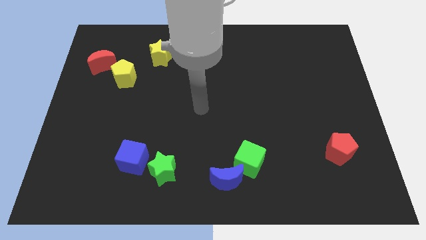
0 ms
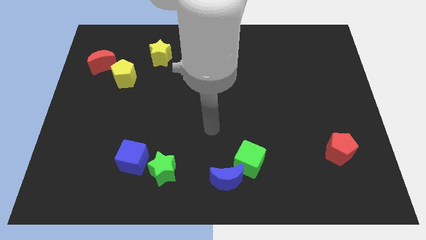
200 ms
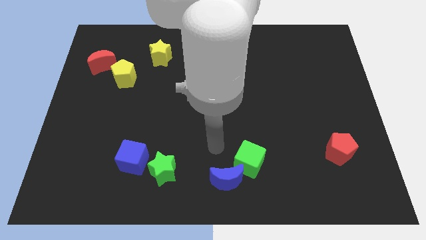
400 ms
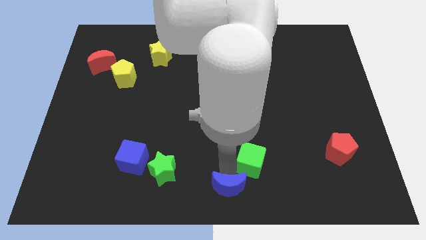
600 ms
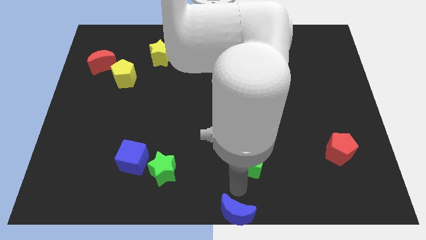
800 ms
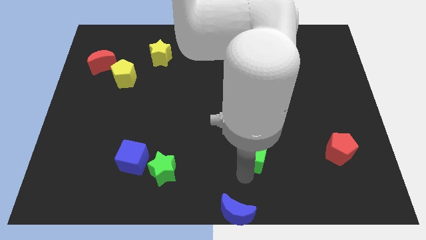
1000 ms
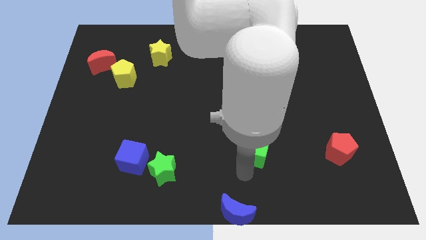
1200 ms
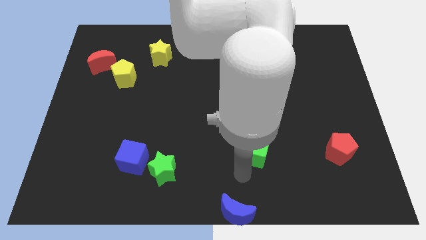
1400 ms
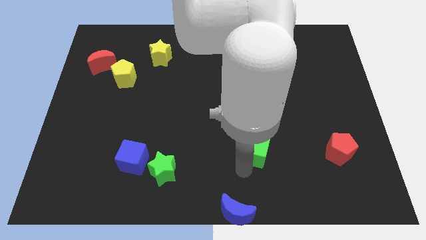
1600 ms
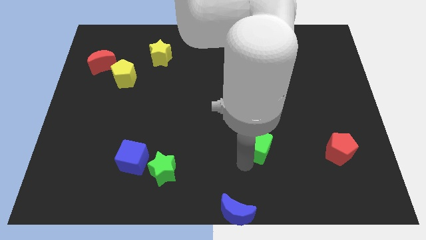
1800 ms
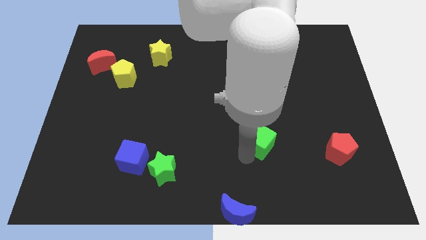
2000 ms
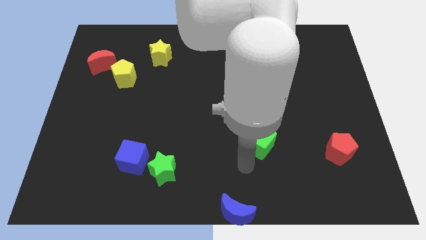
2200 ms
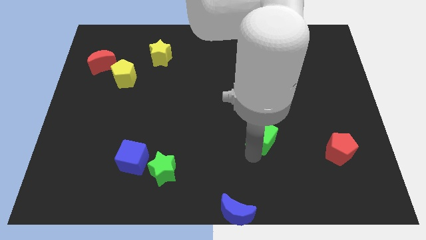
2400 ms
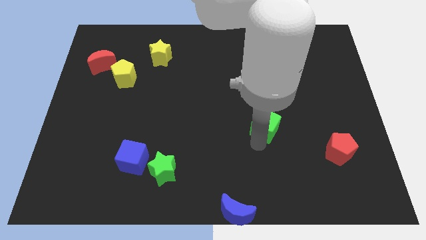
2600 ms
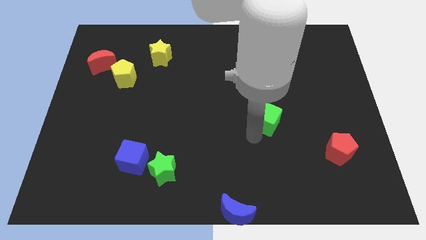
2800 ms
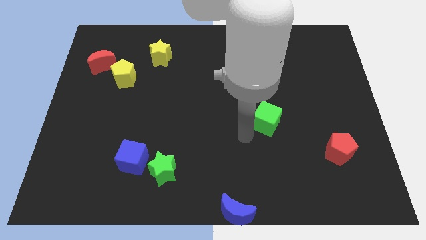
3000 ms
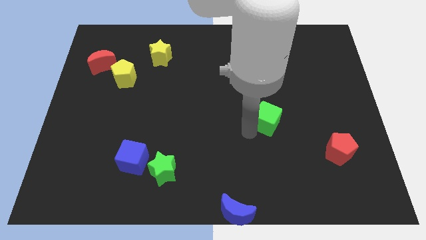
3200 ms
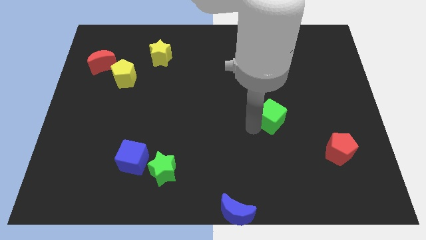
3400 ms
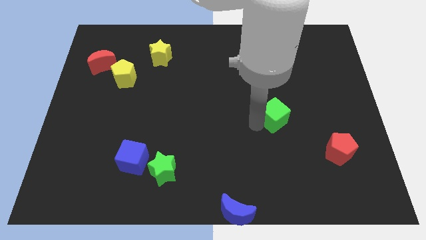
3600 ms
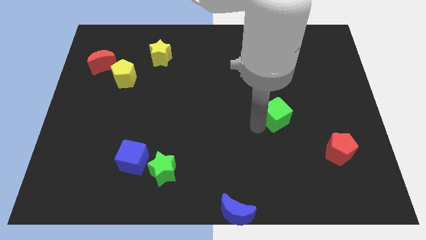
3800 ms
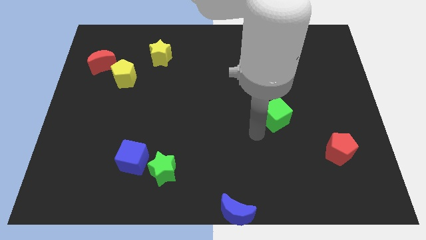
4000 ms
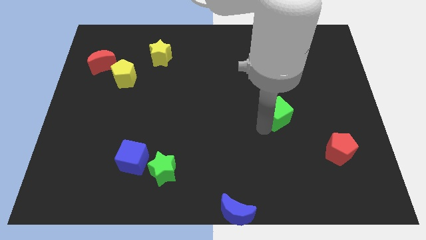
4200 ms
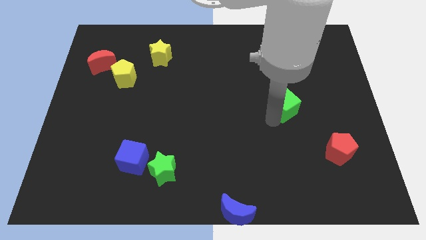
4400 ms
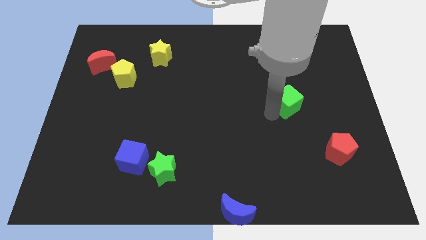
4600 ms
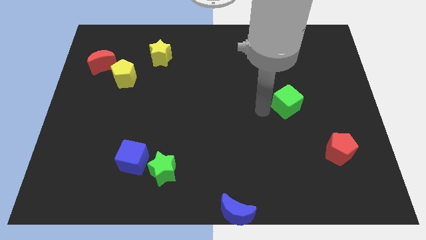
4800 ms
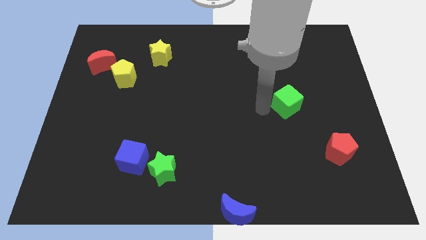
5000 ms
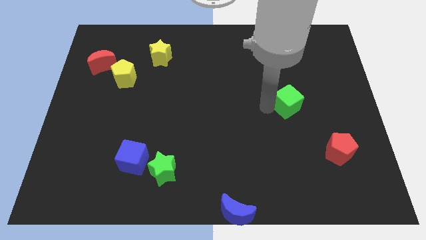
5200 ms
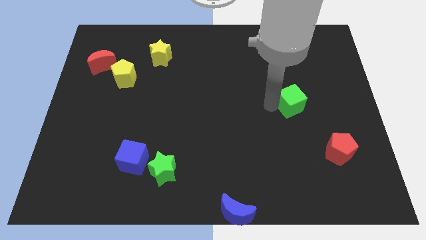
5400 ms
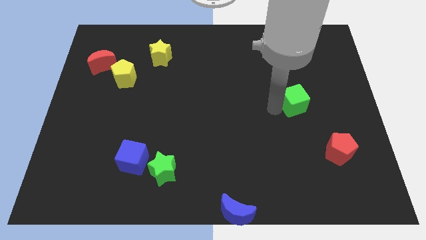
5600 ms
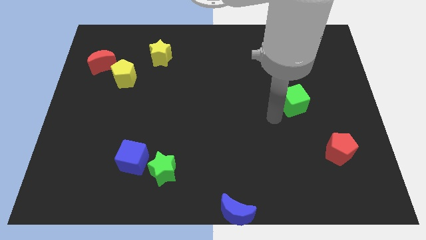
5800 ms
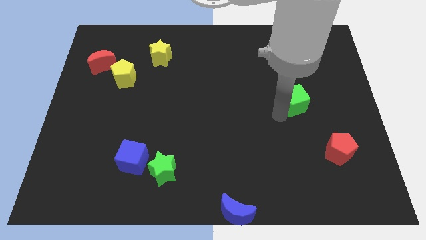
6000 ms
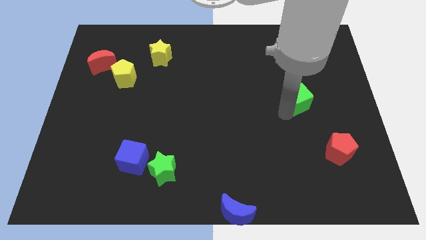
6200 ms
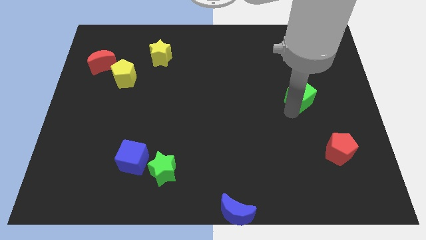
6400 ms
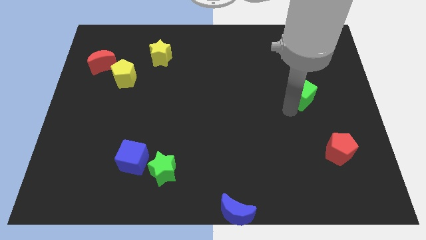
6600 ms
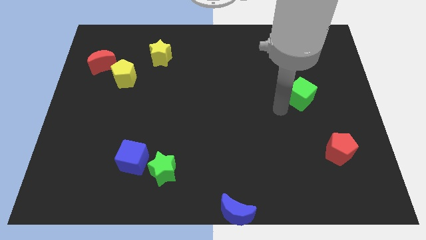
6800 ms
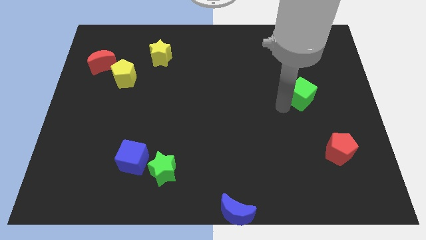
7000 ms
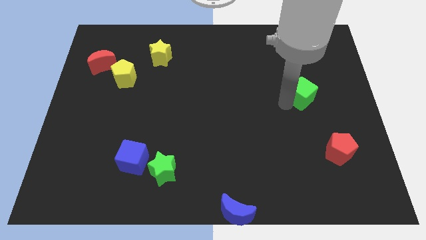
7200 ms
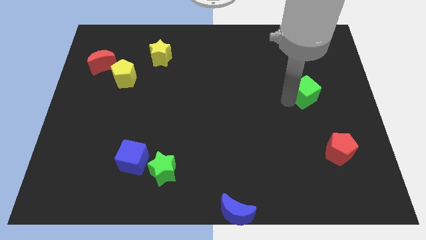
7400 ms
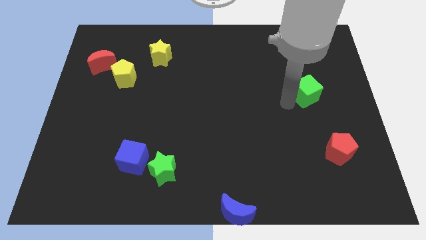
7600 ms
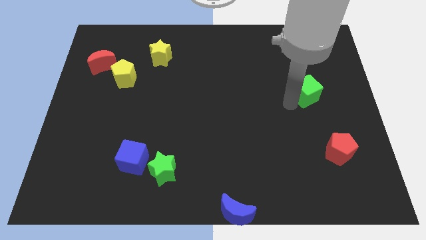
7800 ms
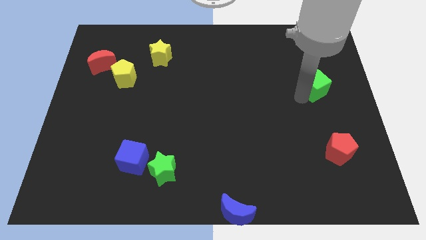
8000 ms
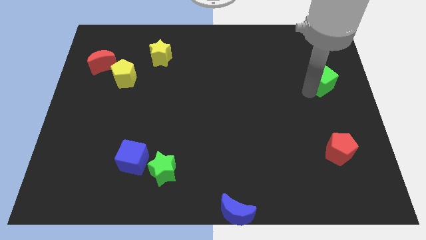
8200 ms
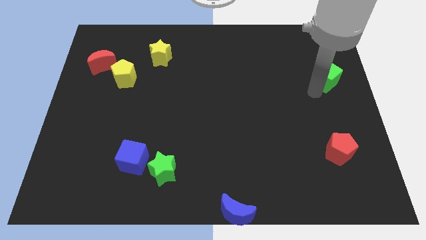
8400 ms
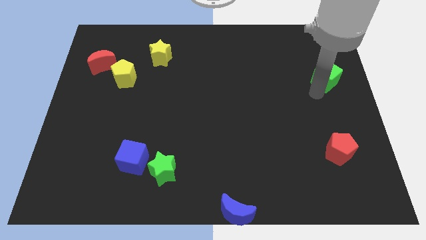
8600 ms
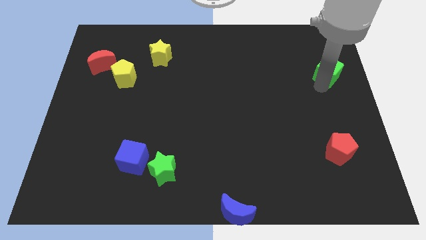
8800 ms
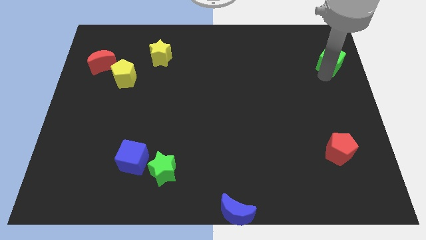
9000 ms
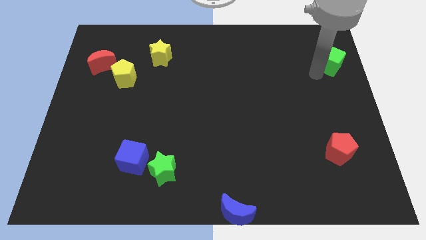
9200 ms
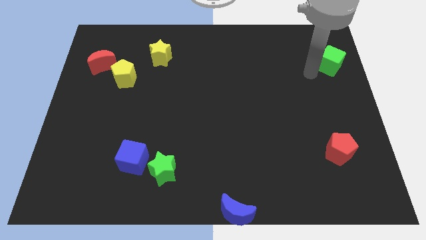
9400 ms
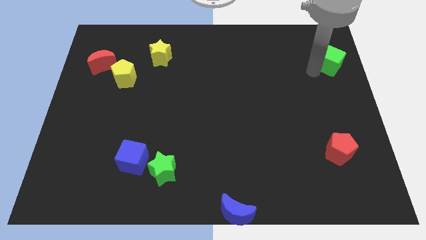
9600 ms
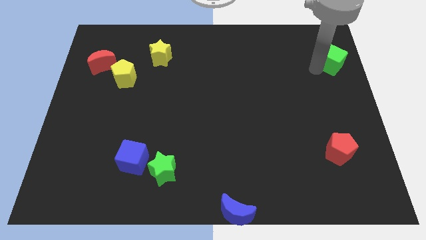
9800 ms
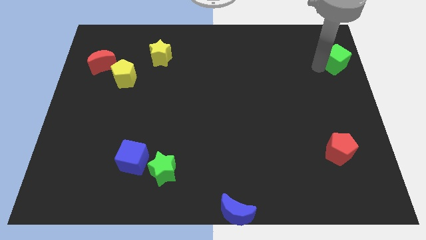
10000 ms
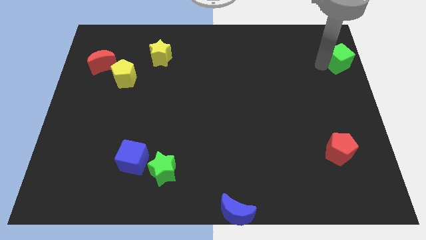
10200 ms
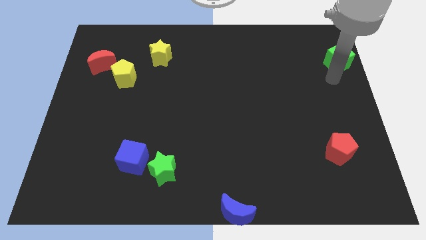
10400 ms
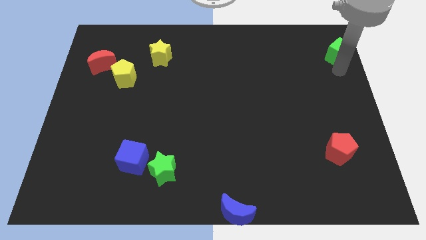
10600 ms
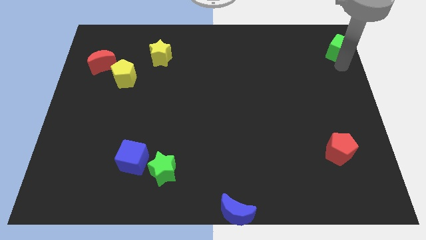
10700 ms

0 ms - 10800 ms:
put the green cube to the upper right corner

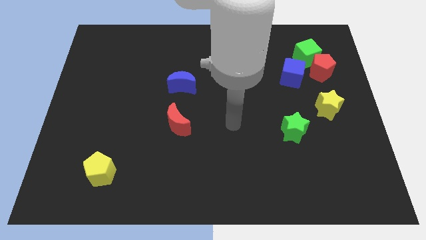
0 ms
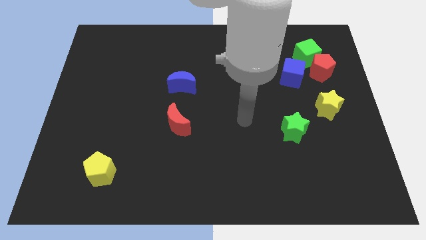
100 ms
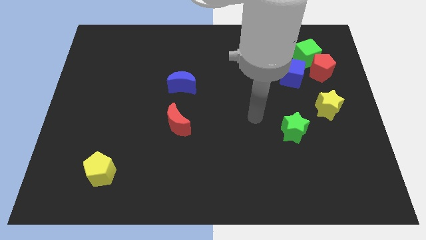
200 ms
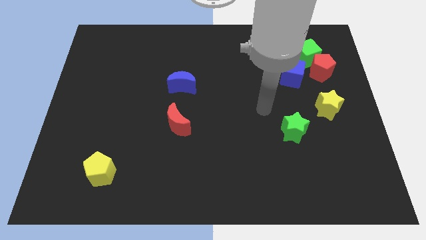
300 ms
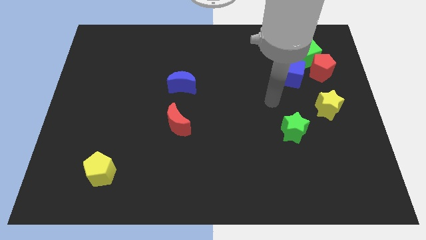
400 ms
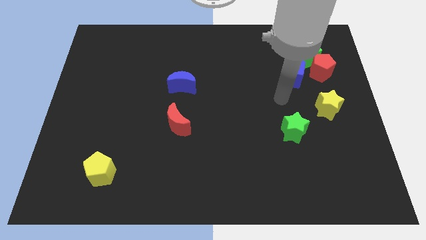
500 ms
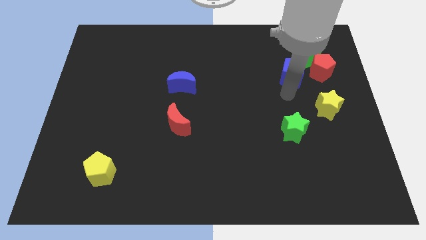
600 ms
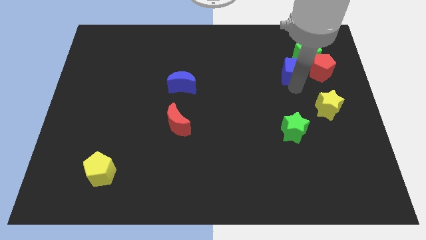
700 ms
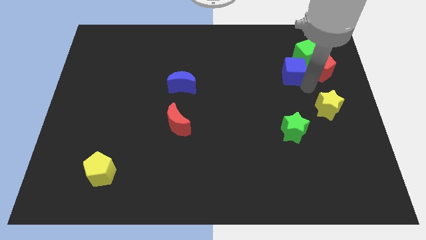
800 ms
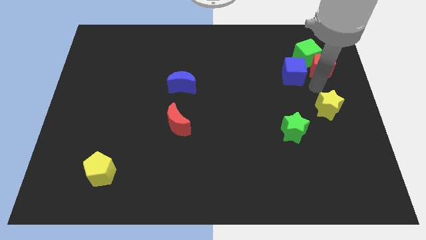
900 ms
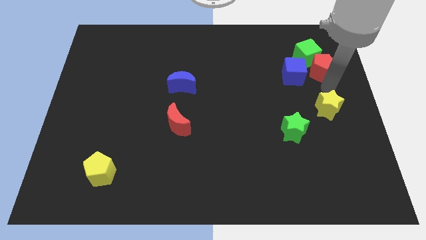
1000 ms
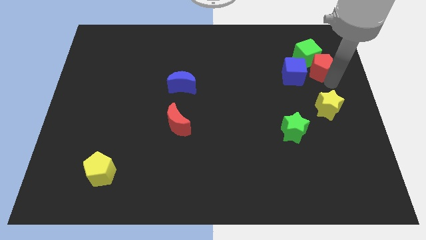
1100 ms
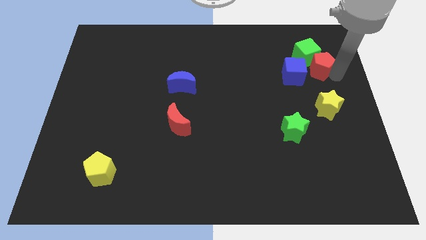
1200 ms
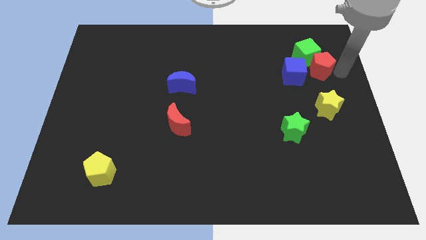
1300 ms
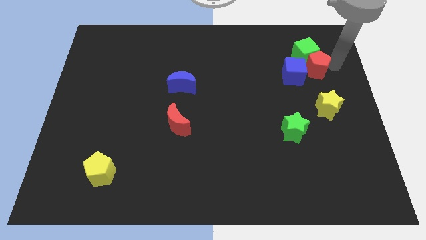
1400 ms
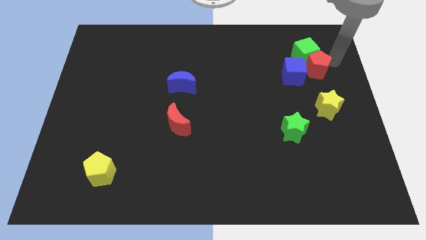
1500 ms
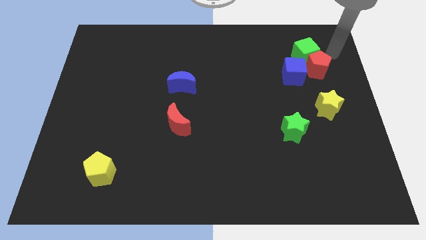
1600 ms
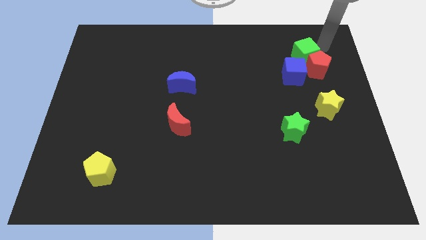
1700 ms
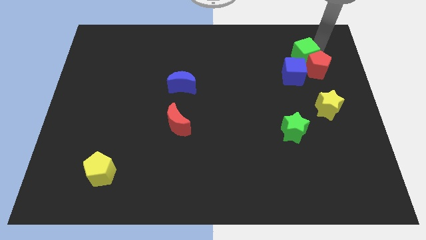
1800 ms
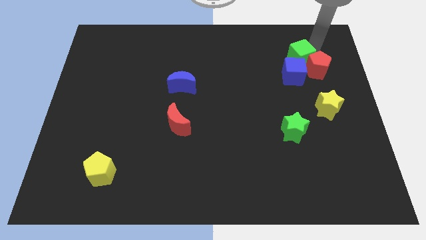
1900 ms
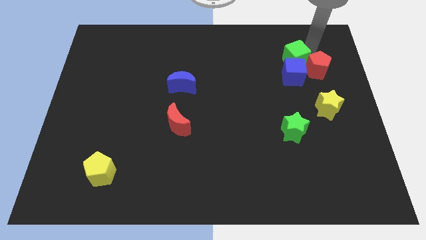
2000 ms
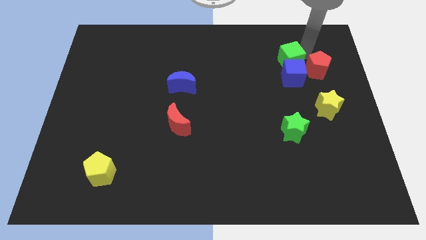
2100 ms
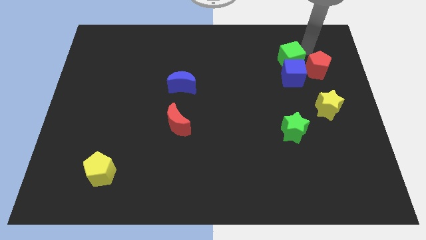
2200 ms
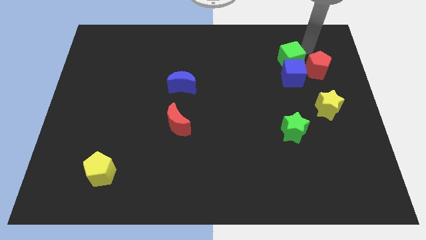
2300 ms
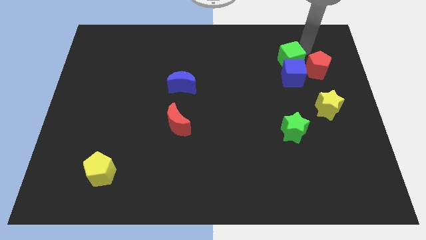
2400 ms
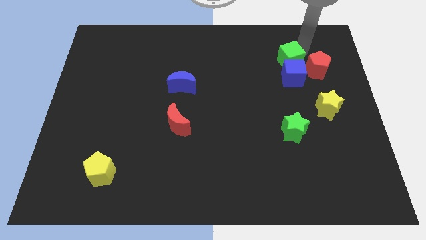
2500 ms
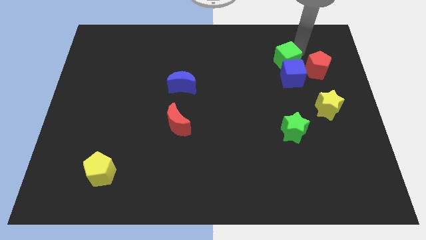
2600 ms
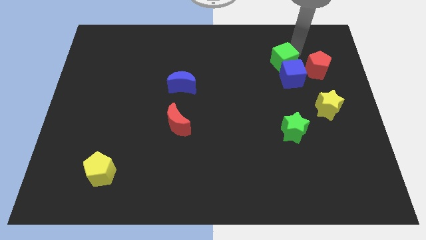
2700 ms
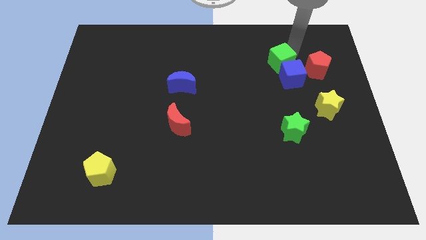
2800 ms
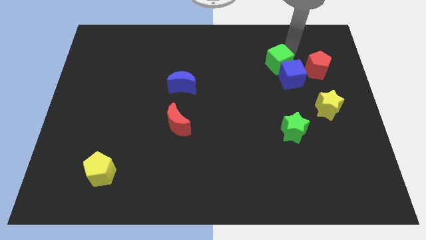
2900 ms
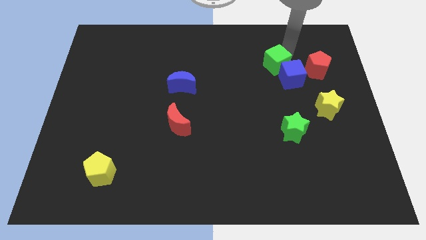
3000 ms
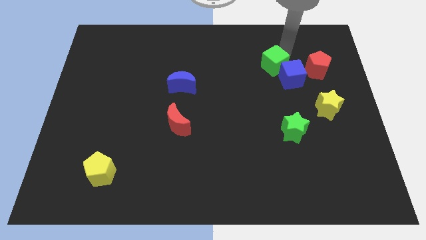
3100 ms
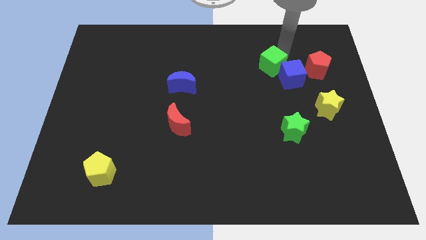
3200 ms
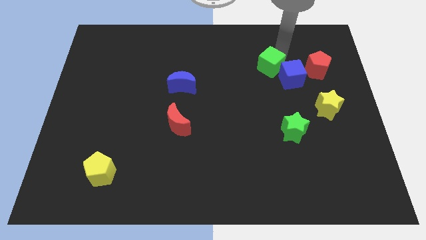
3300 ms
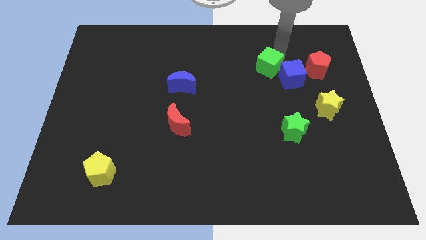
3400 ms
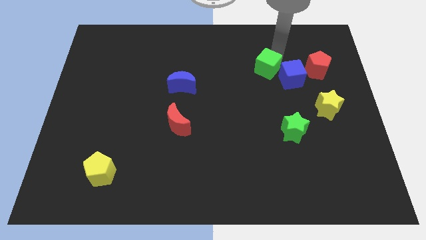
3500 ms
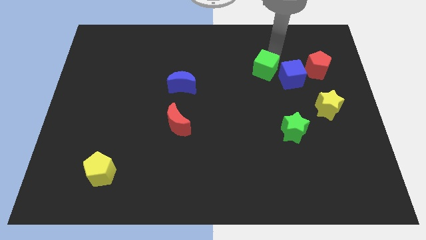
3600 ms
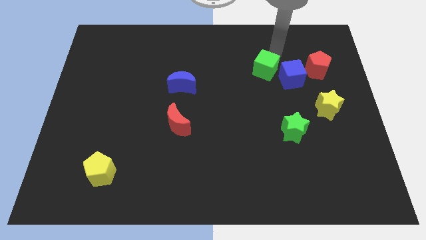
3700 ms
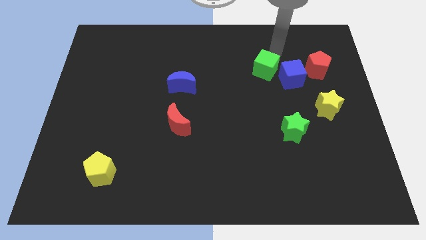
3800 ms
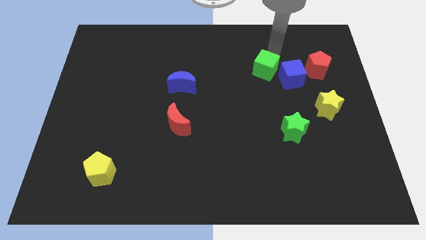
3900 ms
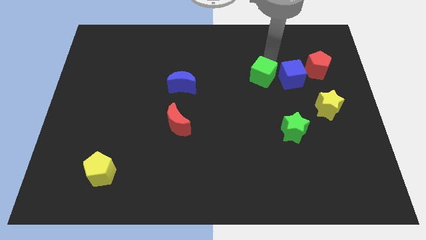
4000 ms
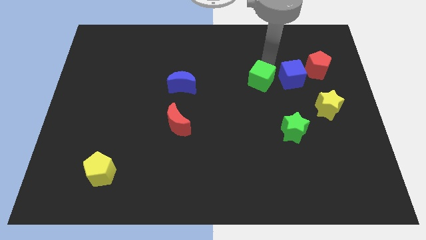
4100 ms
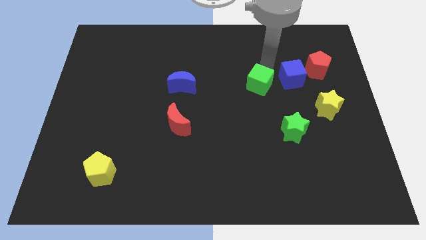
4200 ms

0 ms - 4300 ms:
slide the green cube to the middle of the board
